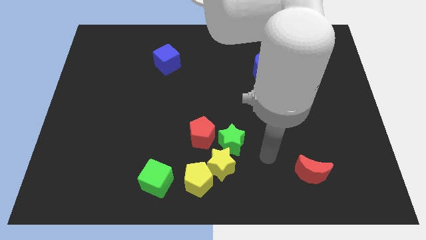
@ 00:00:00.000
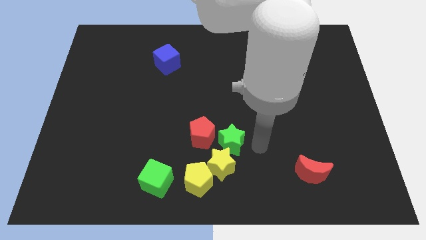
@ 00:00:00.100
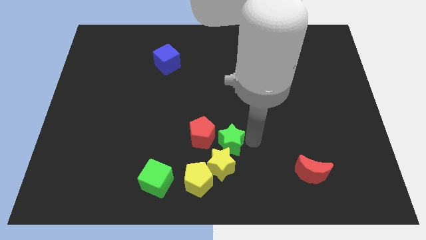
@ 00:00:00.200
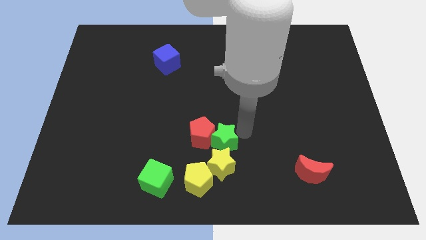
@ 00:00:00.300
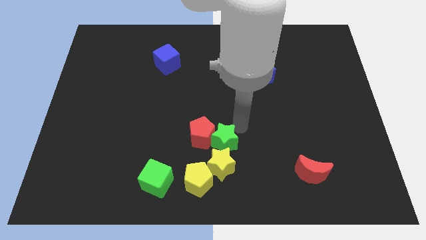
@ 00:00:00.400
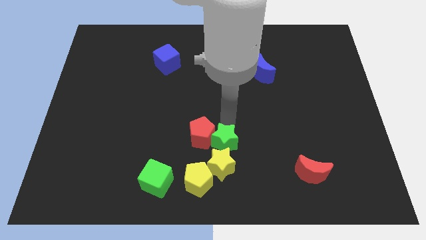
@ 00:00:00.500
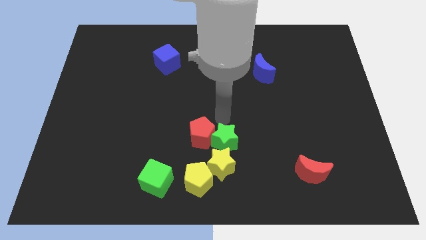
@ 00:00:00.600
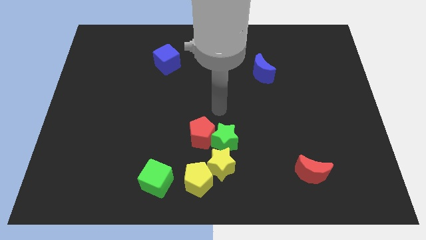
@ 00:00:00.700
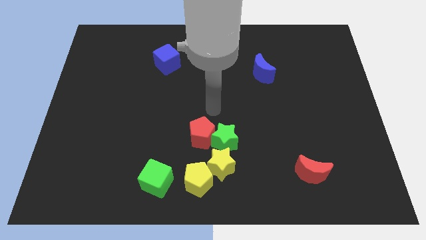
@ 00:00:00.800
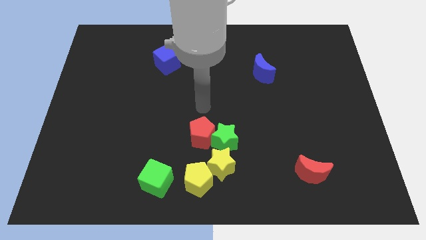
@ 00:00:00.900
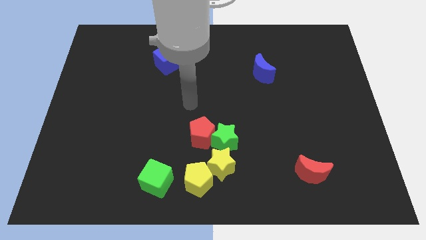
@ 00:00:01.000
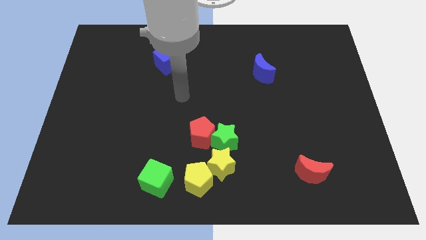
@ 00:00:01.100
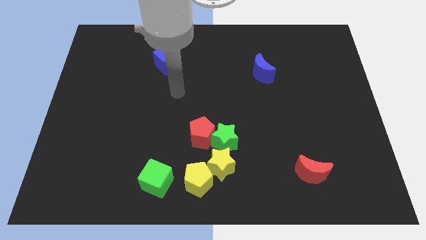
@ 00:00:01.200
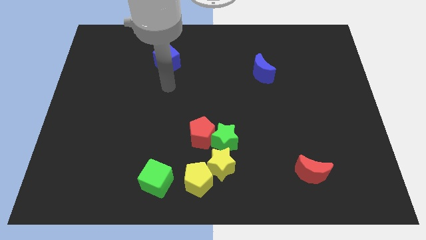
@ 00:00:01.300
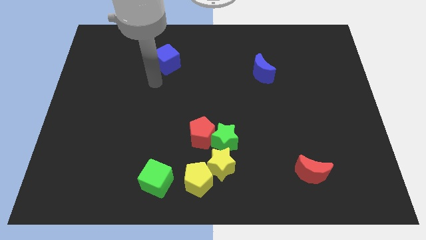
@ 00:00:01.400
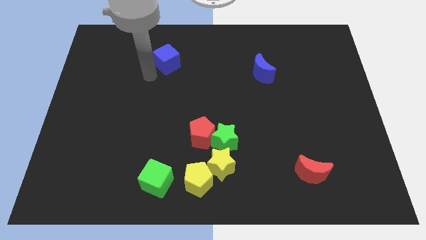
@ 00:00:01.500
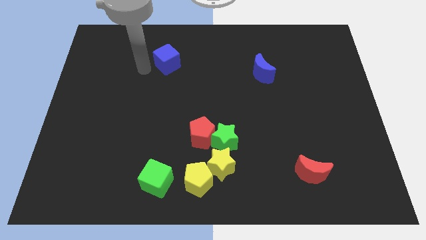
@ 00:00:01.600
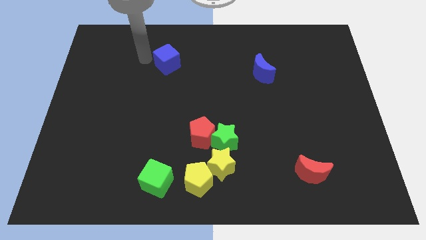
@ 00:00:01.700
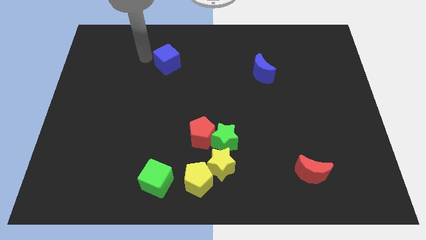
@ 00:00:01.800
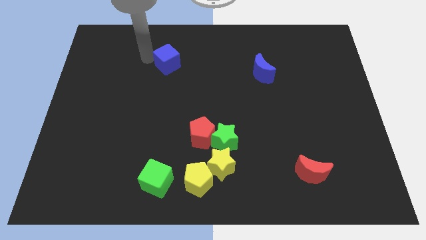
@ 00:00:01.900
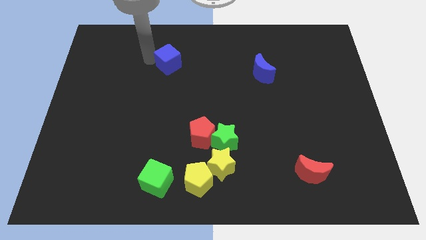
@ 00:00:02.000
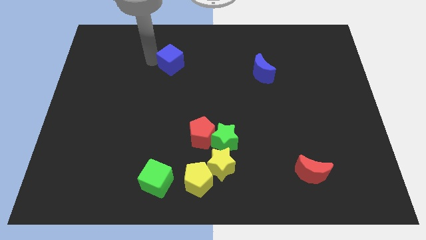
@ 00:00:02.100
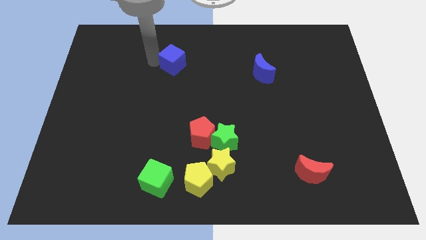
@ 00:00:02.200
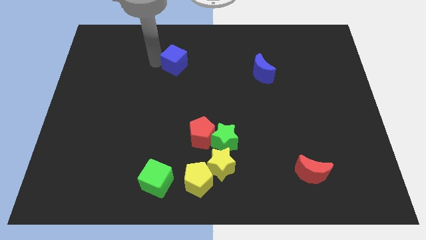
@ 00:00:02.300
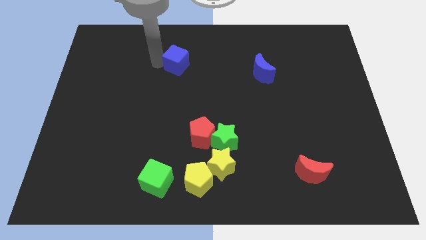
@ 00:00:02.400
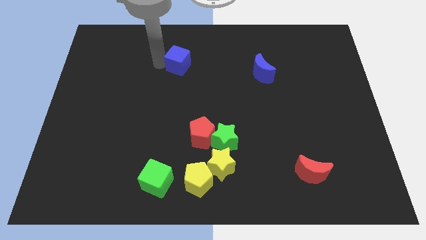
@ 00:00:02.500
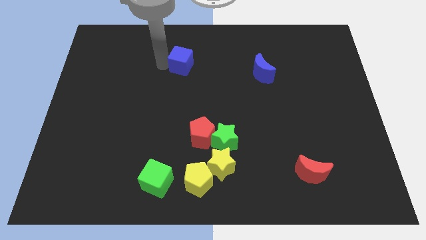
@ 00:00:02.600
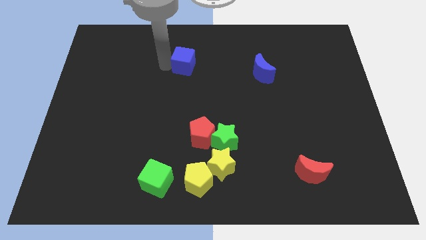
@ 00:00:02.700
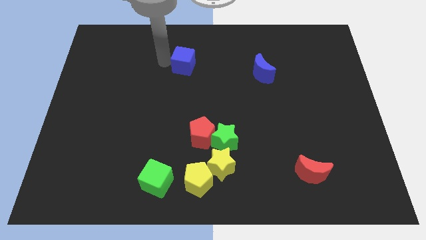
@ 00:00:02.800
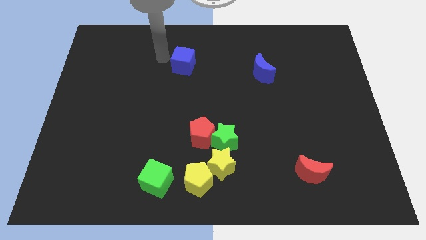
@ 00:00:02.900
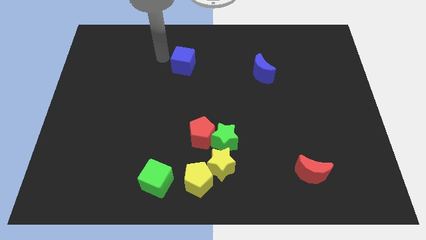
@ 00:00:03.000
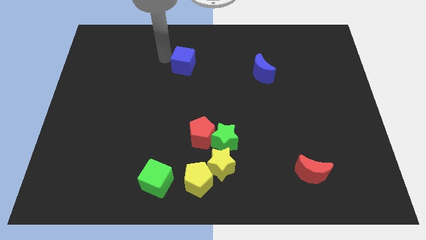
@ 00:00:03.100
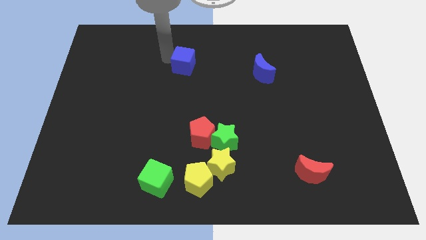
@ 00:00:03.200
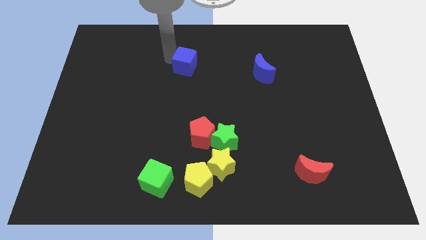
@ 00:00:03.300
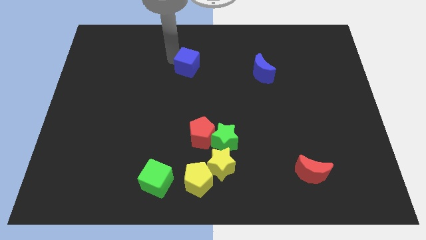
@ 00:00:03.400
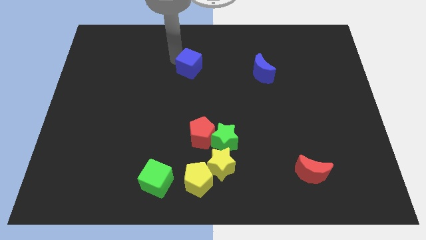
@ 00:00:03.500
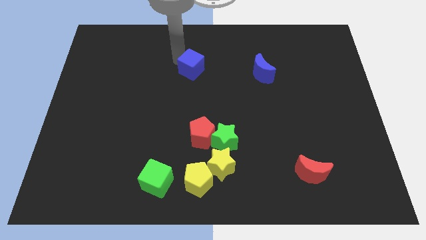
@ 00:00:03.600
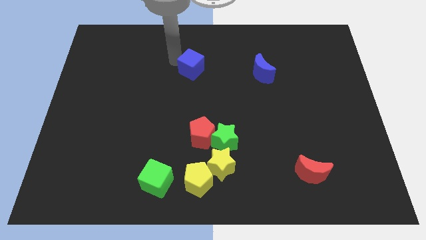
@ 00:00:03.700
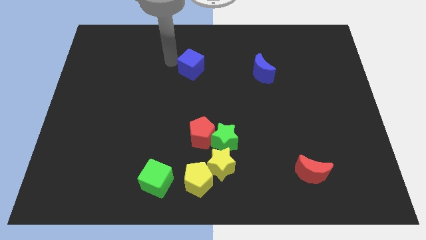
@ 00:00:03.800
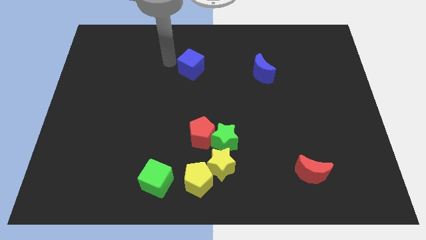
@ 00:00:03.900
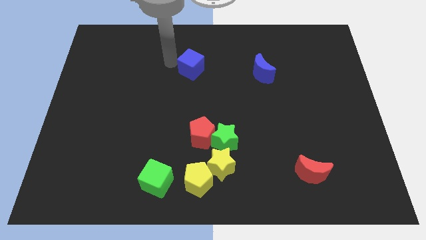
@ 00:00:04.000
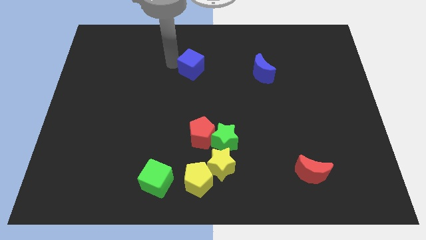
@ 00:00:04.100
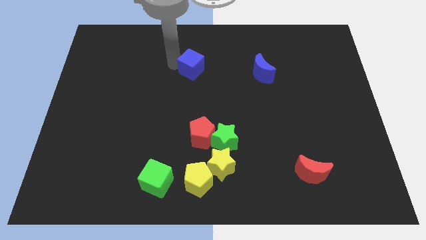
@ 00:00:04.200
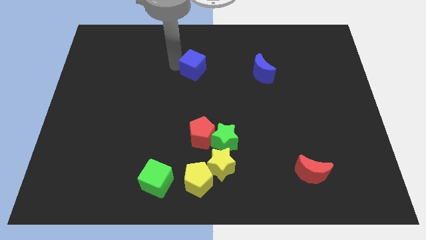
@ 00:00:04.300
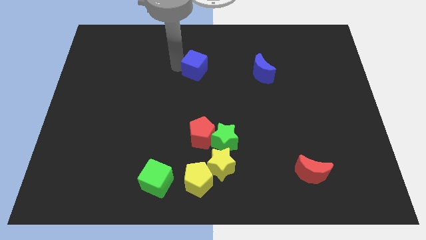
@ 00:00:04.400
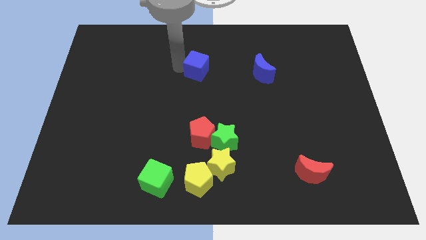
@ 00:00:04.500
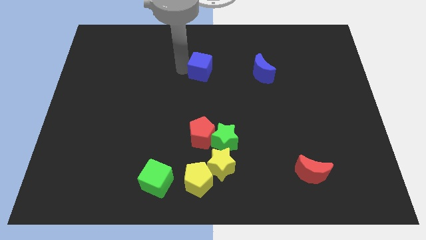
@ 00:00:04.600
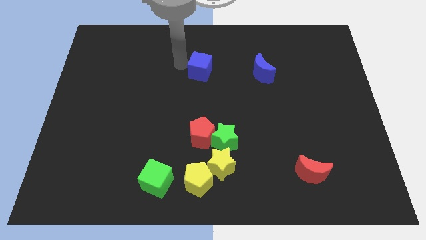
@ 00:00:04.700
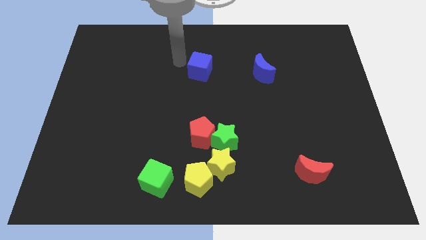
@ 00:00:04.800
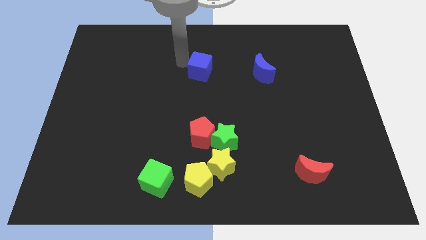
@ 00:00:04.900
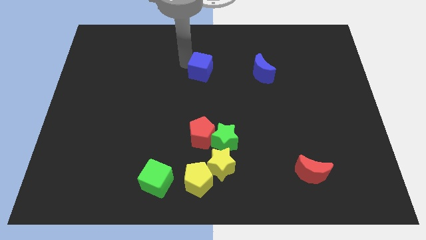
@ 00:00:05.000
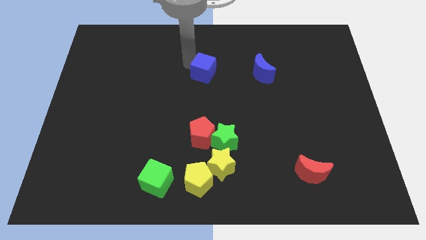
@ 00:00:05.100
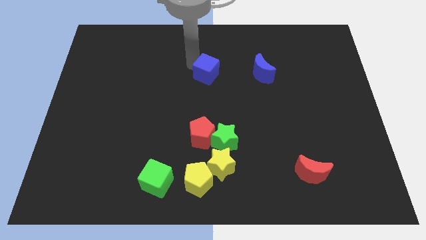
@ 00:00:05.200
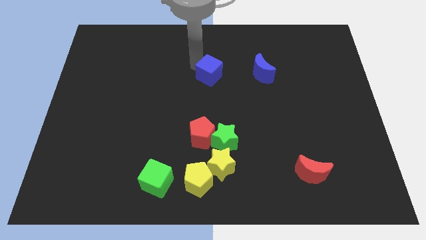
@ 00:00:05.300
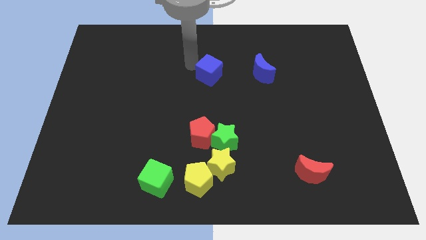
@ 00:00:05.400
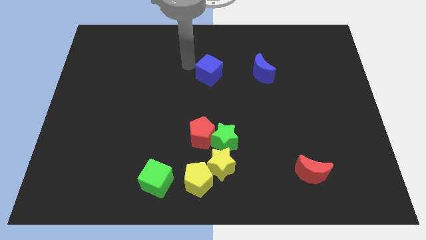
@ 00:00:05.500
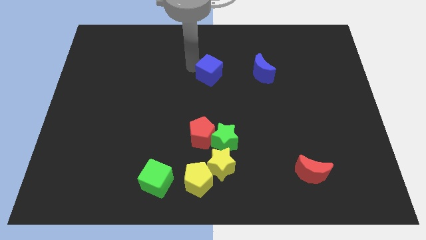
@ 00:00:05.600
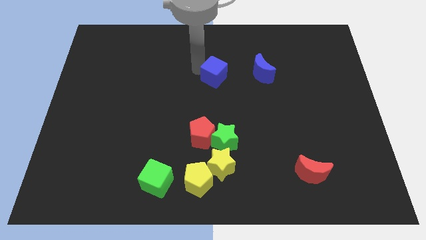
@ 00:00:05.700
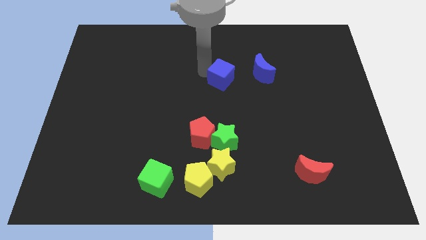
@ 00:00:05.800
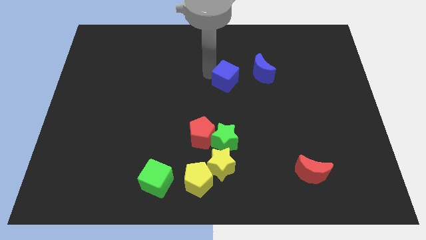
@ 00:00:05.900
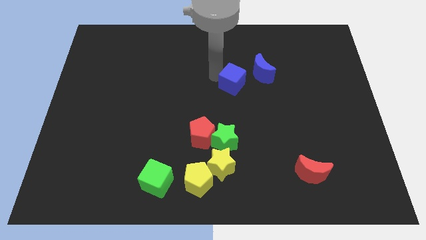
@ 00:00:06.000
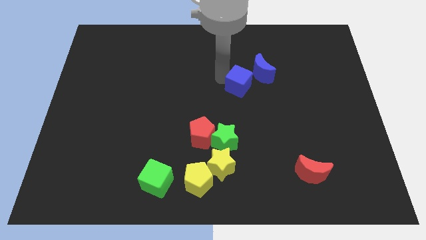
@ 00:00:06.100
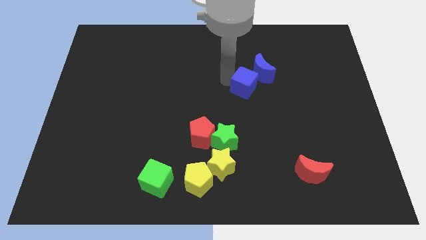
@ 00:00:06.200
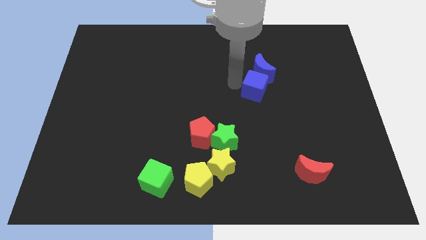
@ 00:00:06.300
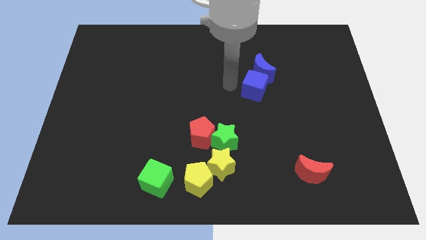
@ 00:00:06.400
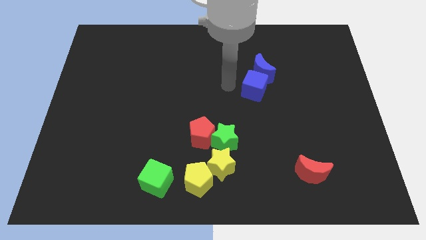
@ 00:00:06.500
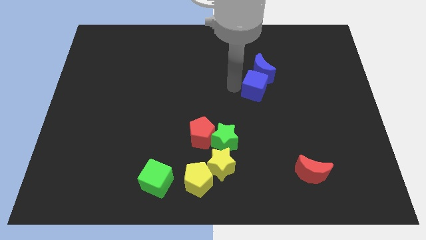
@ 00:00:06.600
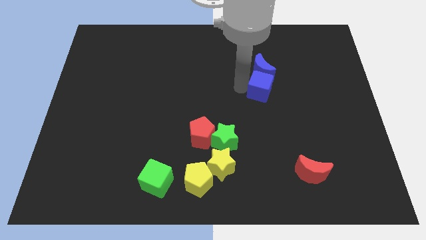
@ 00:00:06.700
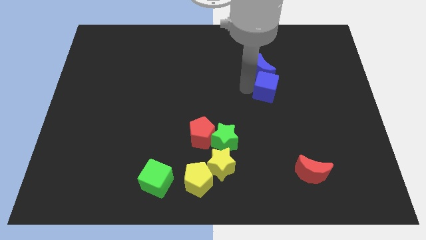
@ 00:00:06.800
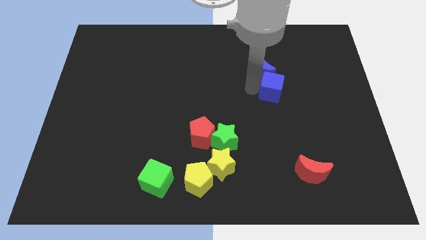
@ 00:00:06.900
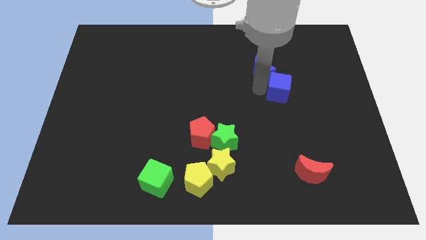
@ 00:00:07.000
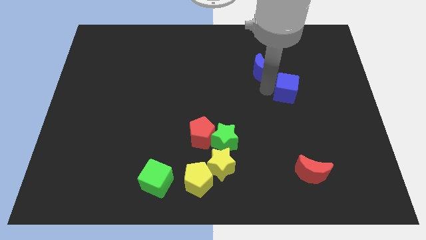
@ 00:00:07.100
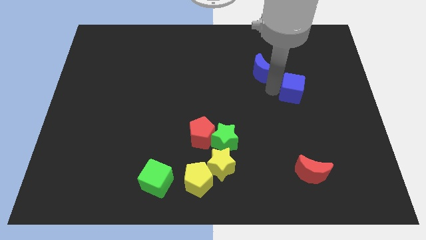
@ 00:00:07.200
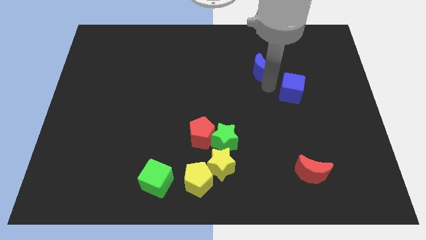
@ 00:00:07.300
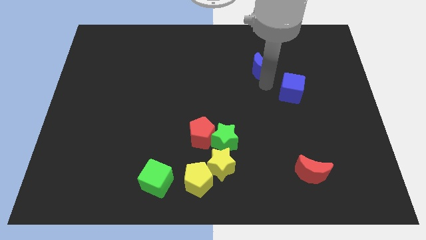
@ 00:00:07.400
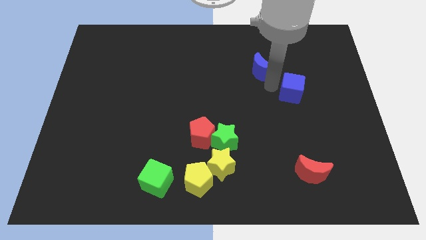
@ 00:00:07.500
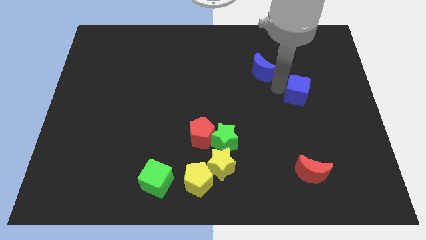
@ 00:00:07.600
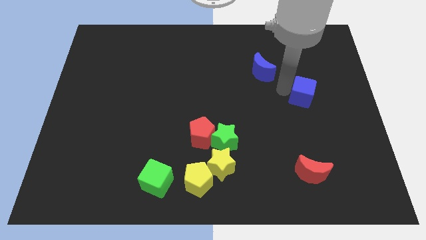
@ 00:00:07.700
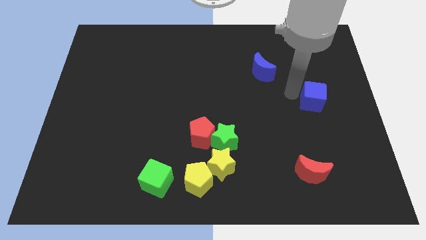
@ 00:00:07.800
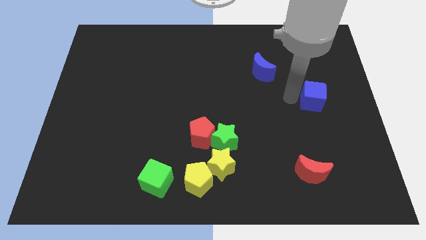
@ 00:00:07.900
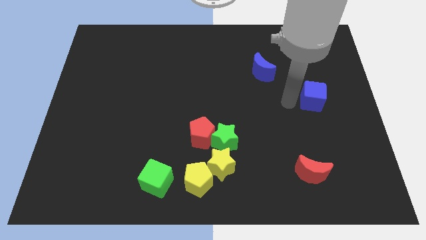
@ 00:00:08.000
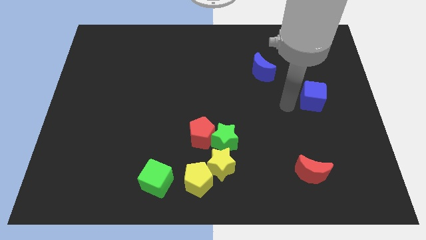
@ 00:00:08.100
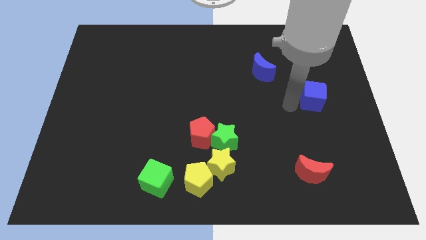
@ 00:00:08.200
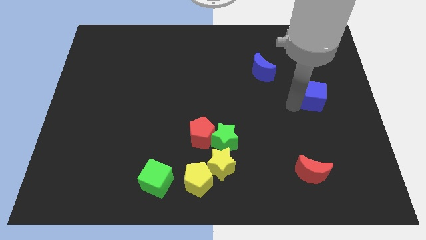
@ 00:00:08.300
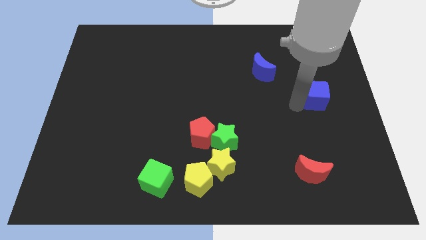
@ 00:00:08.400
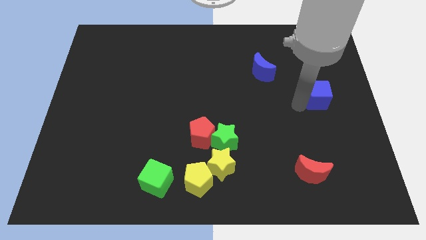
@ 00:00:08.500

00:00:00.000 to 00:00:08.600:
put the blue cube to the right side of the board
